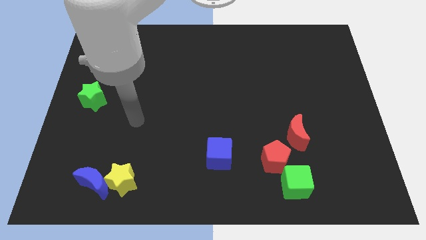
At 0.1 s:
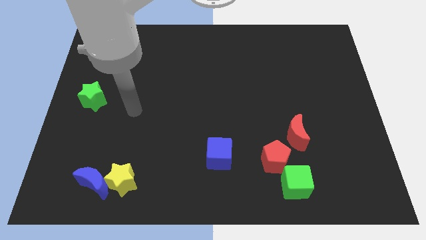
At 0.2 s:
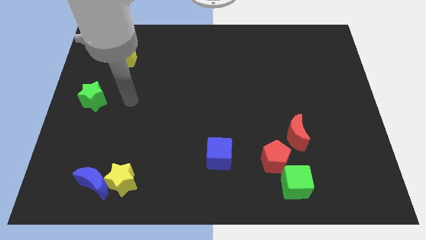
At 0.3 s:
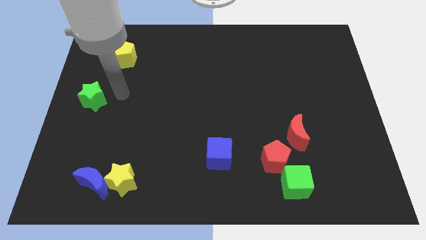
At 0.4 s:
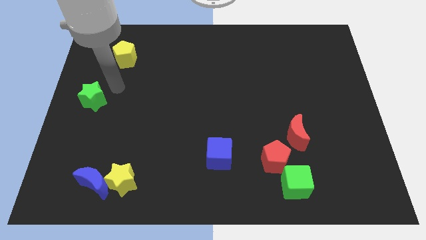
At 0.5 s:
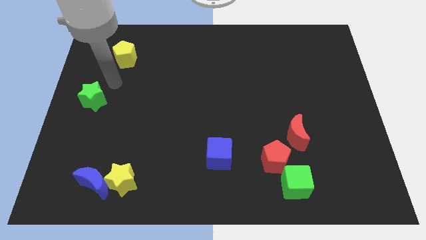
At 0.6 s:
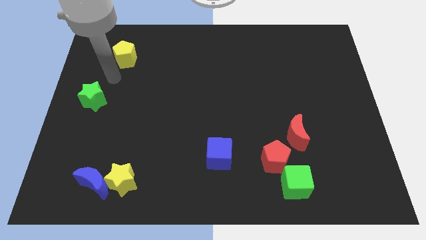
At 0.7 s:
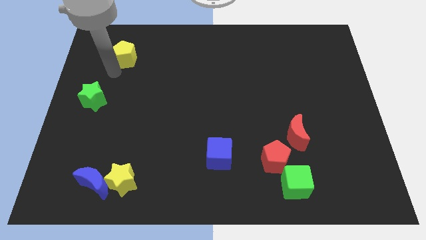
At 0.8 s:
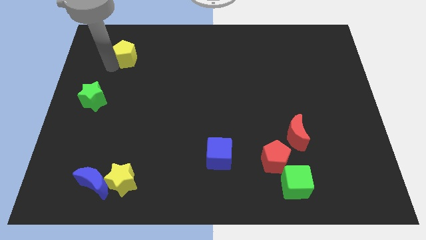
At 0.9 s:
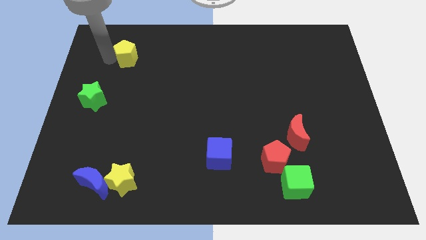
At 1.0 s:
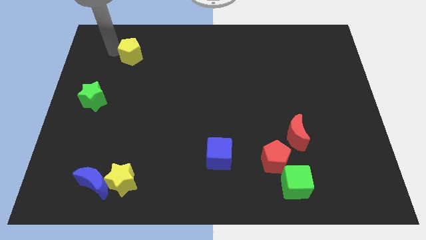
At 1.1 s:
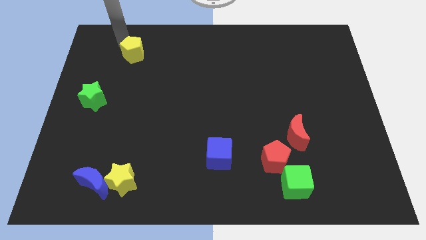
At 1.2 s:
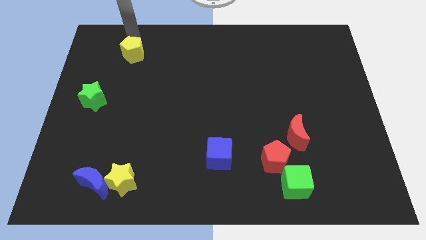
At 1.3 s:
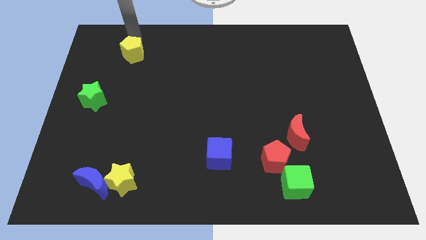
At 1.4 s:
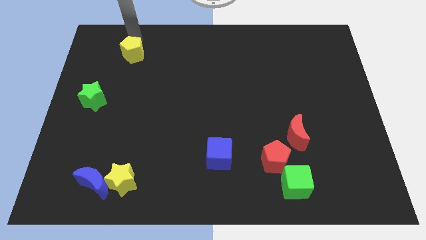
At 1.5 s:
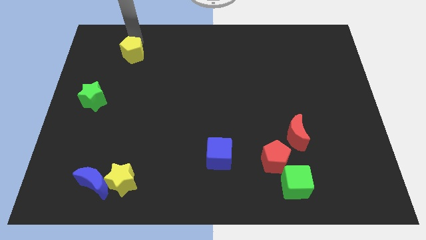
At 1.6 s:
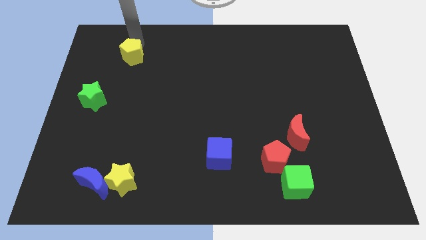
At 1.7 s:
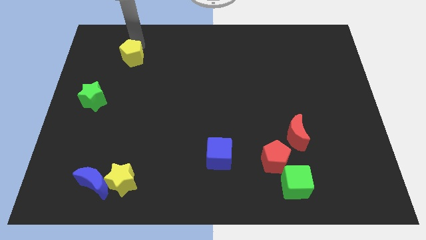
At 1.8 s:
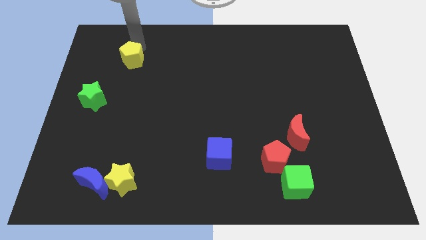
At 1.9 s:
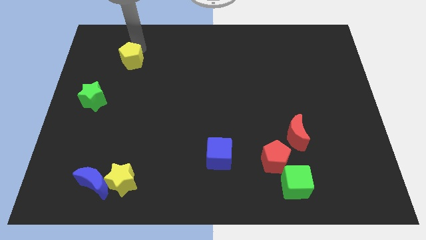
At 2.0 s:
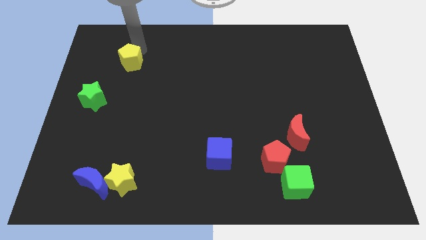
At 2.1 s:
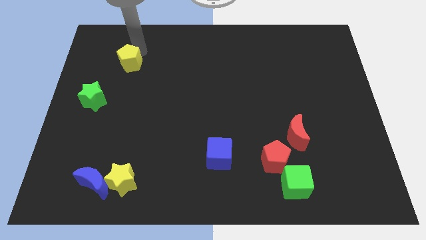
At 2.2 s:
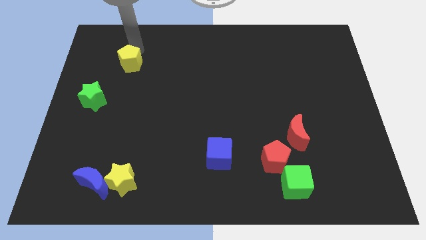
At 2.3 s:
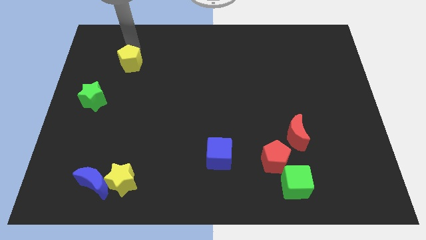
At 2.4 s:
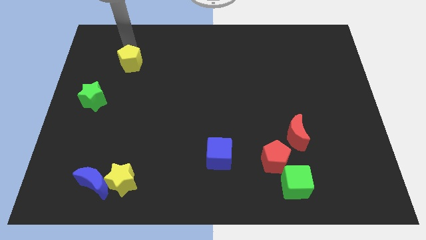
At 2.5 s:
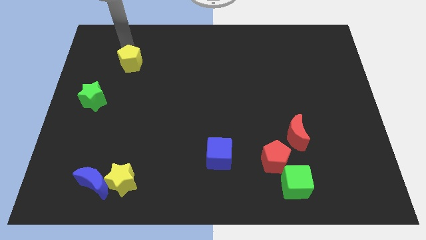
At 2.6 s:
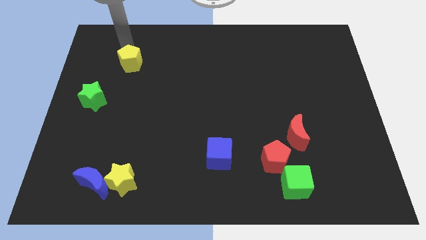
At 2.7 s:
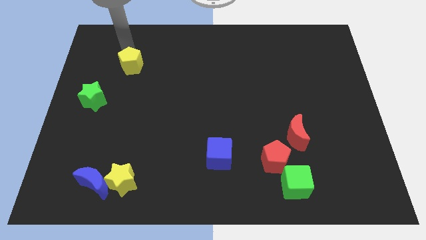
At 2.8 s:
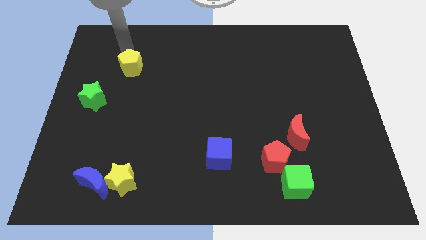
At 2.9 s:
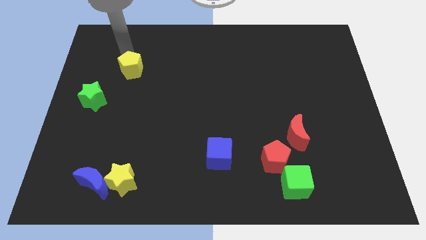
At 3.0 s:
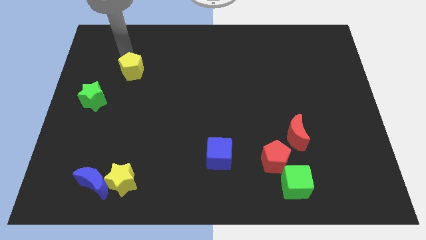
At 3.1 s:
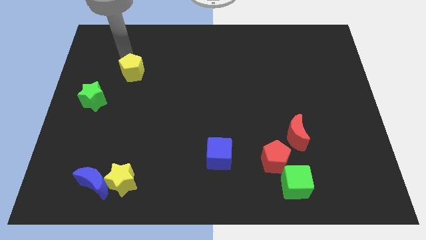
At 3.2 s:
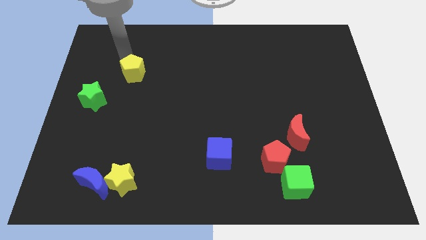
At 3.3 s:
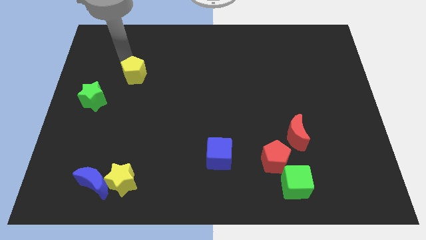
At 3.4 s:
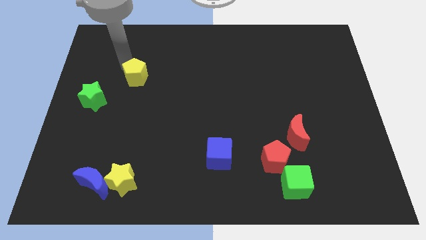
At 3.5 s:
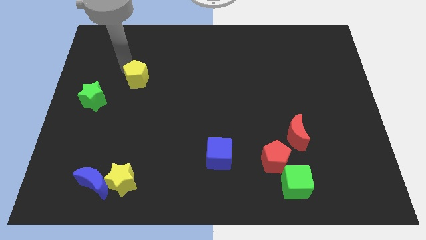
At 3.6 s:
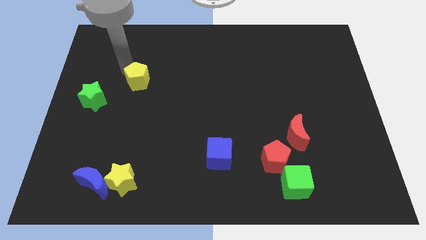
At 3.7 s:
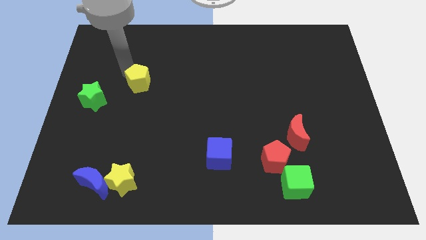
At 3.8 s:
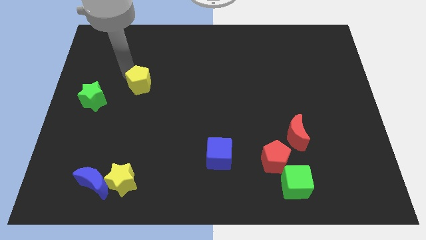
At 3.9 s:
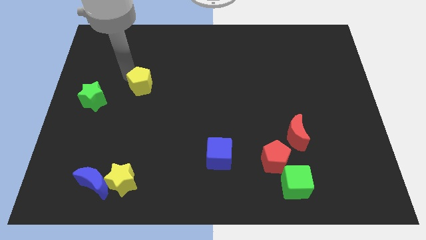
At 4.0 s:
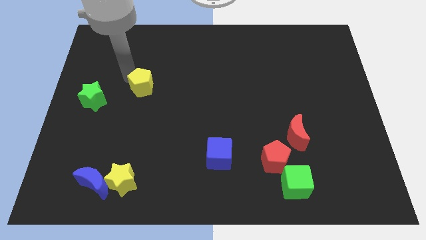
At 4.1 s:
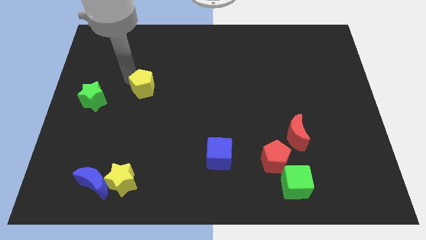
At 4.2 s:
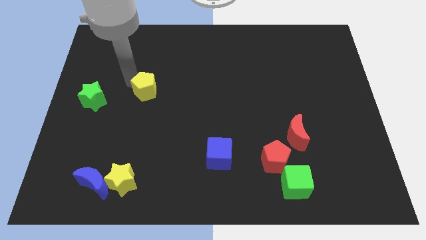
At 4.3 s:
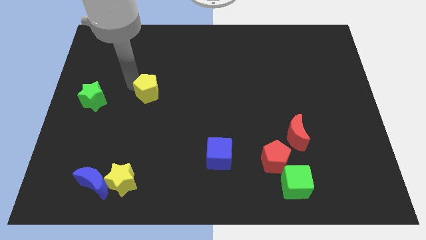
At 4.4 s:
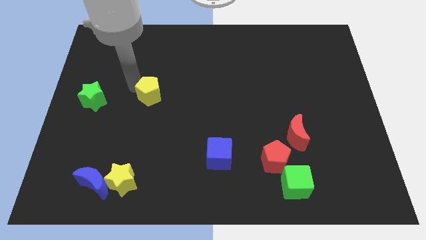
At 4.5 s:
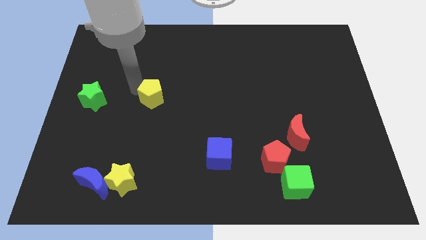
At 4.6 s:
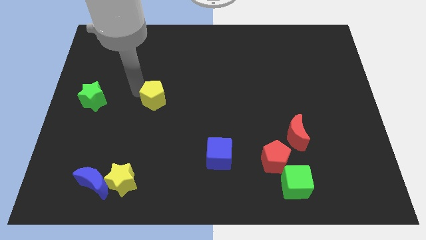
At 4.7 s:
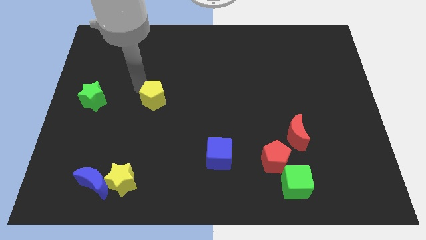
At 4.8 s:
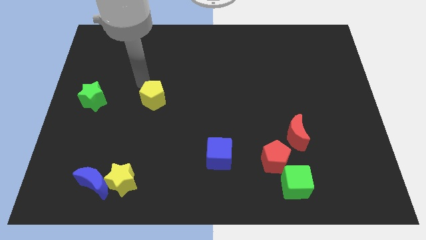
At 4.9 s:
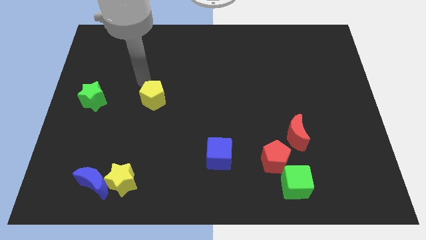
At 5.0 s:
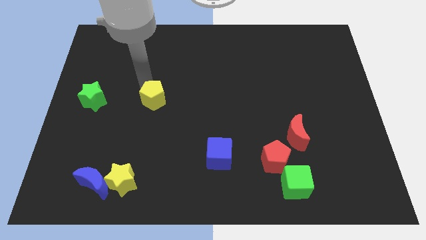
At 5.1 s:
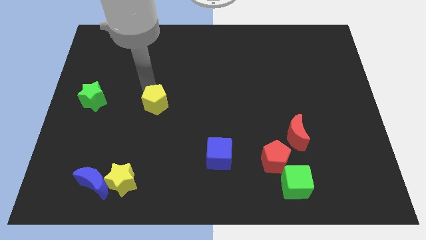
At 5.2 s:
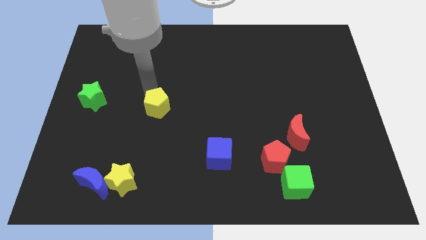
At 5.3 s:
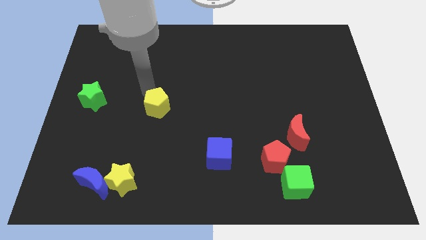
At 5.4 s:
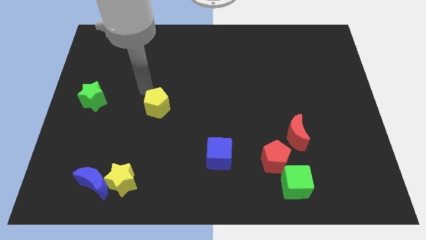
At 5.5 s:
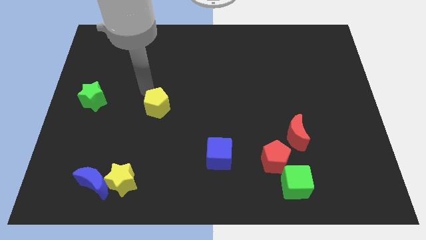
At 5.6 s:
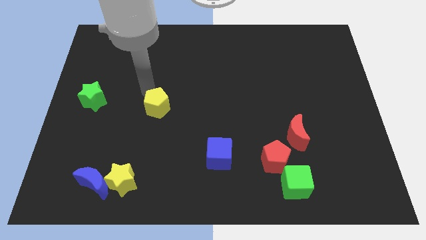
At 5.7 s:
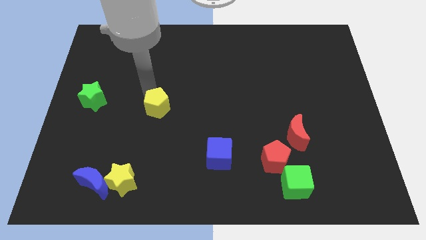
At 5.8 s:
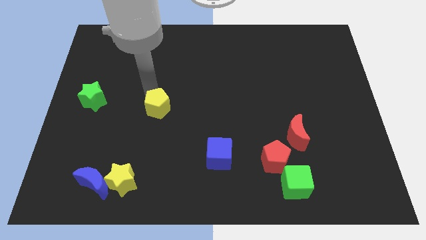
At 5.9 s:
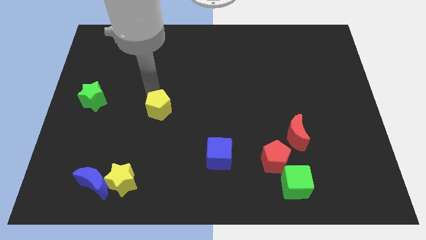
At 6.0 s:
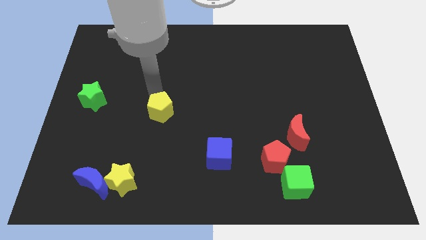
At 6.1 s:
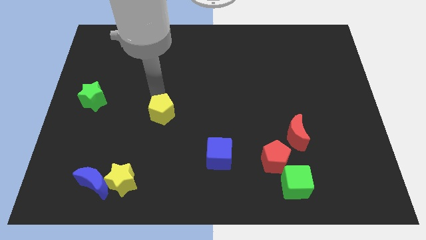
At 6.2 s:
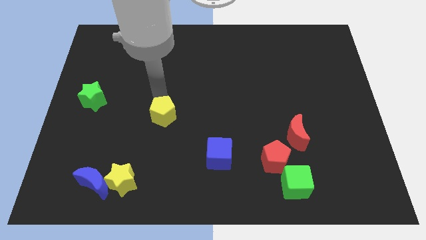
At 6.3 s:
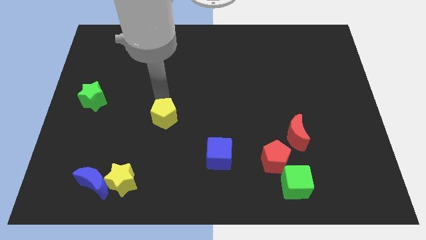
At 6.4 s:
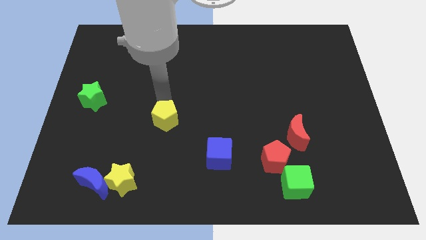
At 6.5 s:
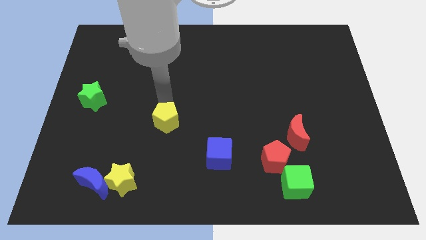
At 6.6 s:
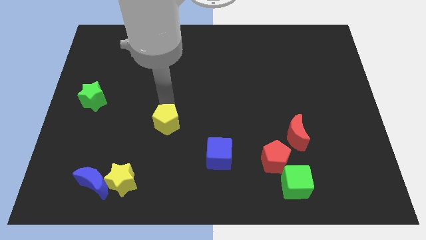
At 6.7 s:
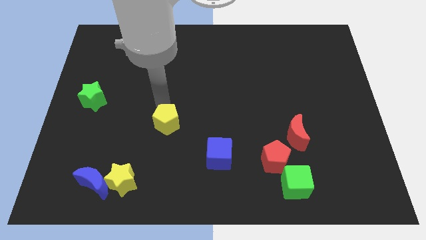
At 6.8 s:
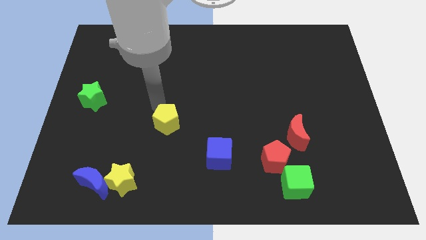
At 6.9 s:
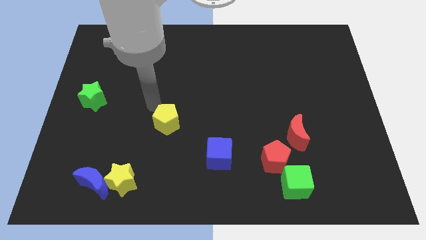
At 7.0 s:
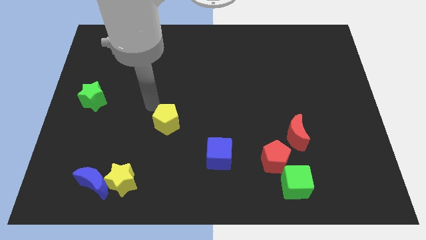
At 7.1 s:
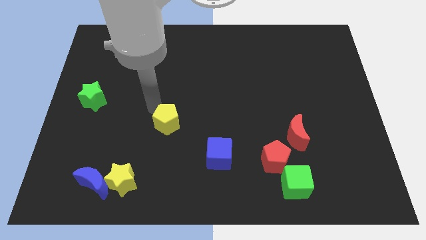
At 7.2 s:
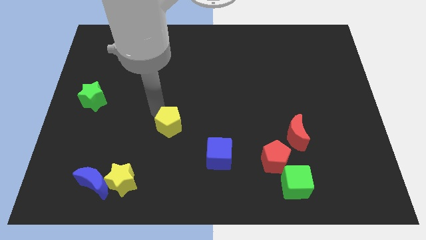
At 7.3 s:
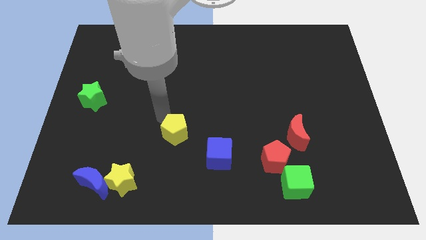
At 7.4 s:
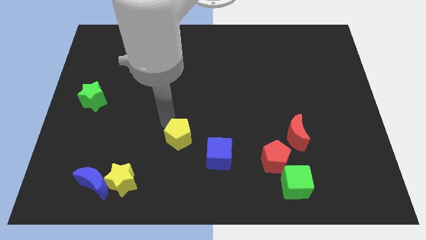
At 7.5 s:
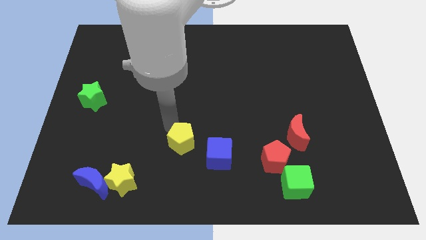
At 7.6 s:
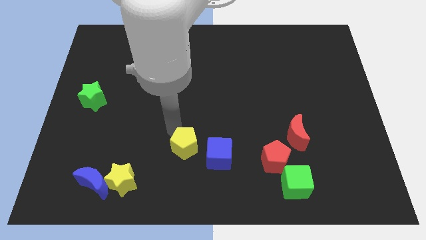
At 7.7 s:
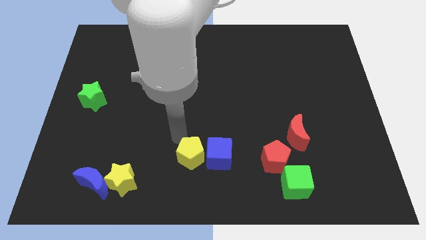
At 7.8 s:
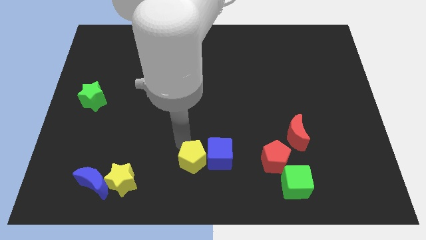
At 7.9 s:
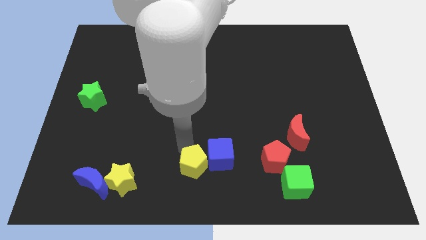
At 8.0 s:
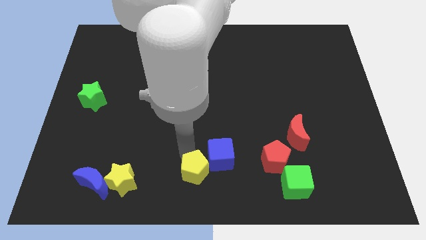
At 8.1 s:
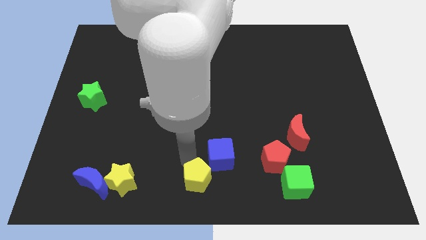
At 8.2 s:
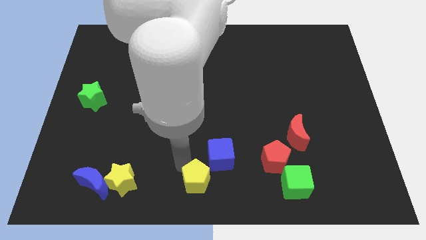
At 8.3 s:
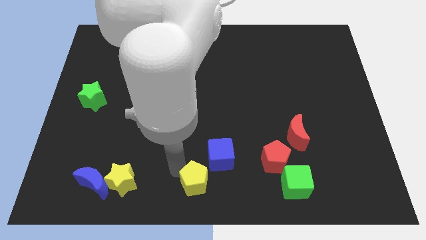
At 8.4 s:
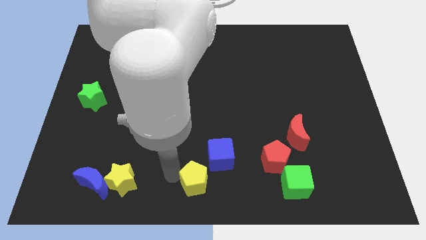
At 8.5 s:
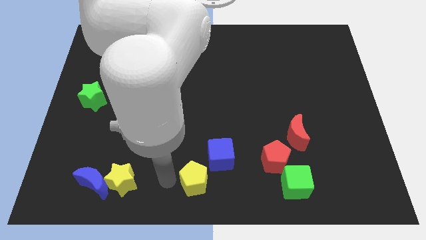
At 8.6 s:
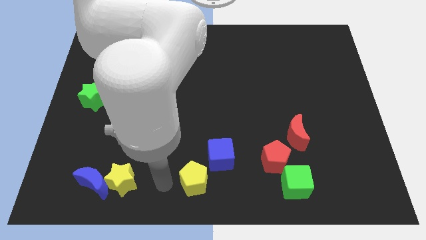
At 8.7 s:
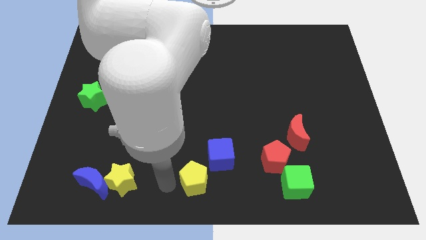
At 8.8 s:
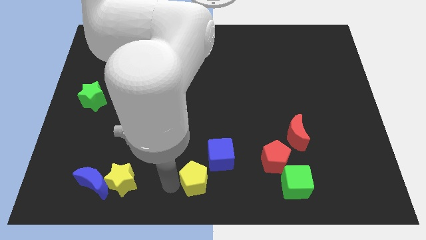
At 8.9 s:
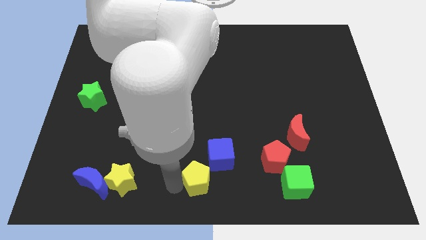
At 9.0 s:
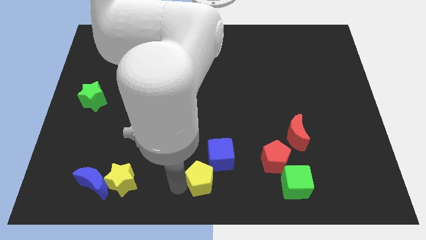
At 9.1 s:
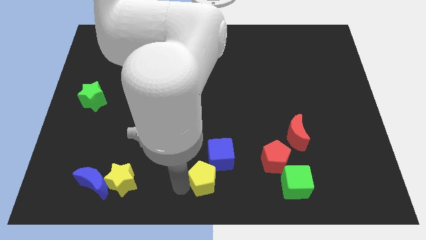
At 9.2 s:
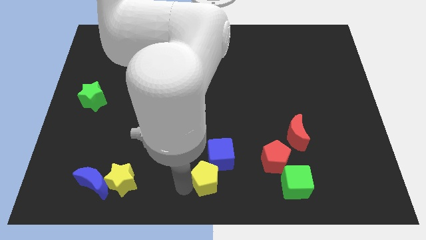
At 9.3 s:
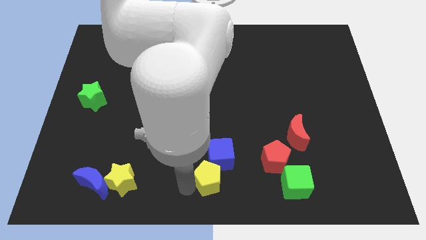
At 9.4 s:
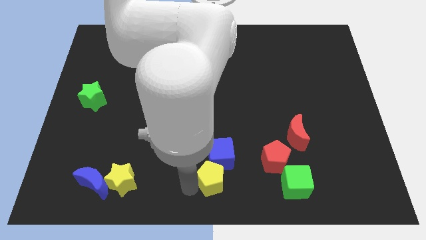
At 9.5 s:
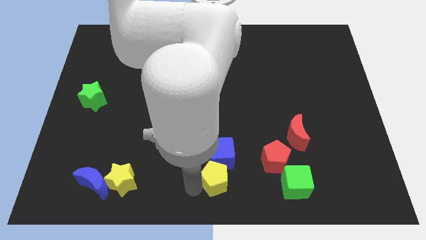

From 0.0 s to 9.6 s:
move the yellow pentagon left of the green cube
